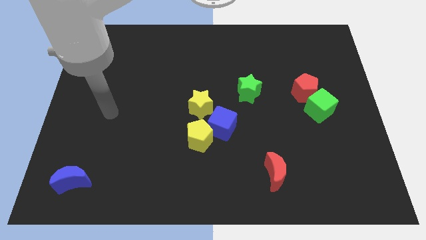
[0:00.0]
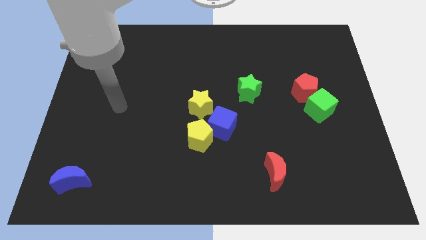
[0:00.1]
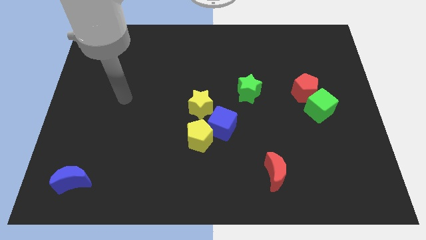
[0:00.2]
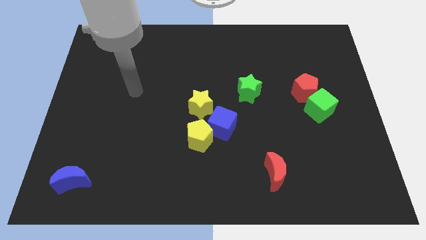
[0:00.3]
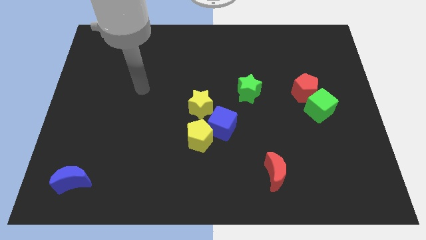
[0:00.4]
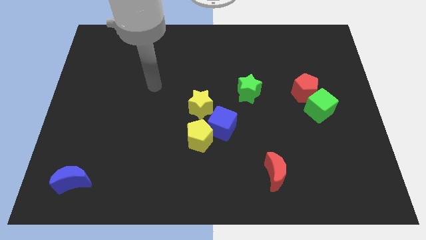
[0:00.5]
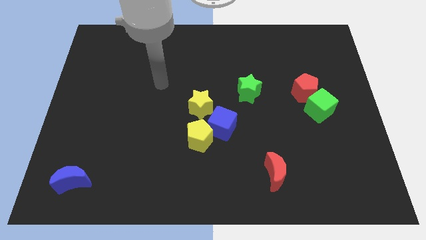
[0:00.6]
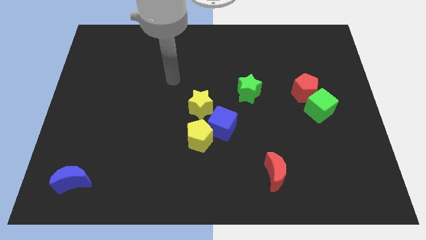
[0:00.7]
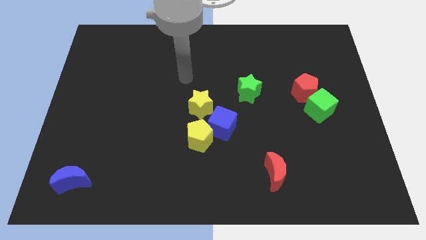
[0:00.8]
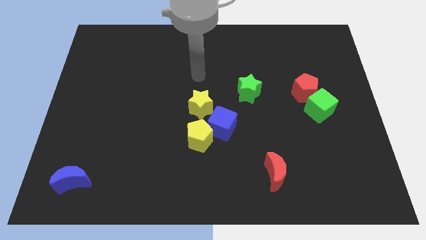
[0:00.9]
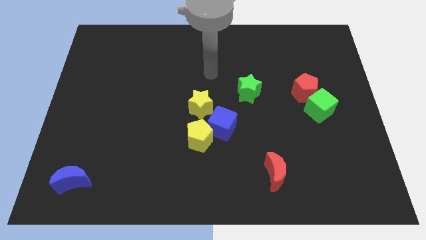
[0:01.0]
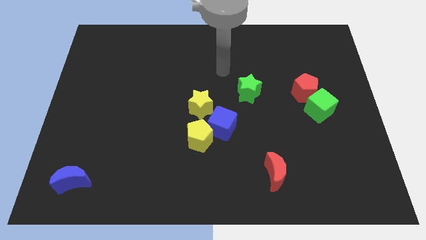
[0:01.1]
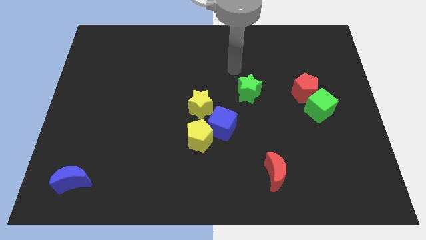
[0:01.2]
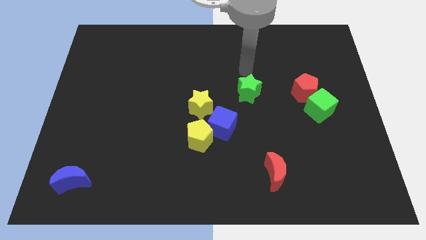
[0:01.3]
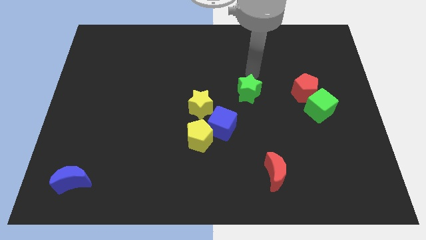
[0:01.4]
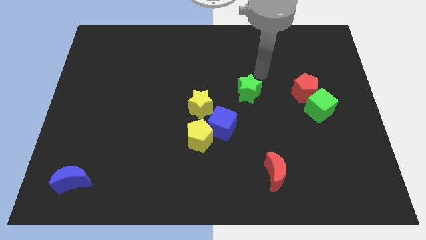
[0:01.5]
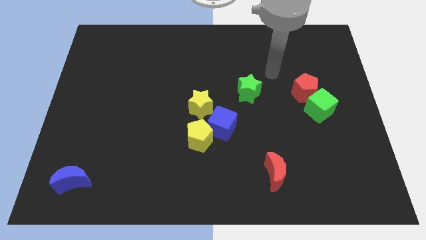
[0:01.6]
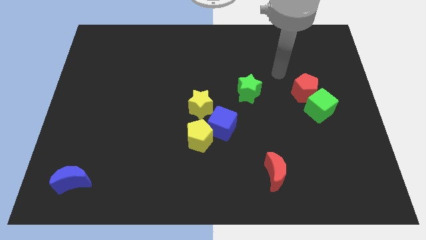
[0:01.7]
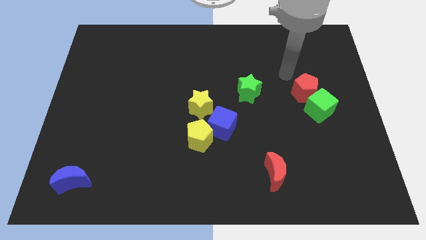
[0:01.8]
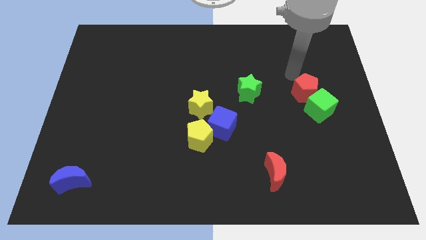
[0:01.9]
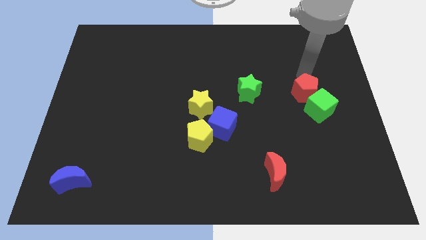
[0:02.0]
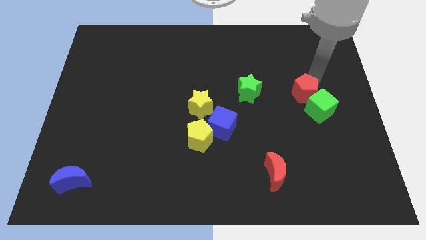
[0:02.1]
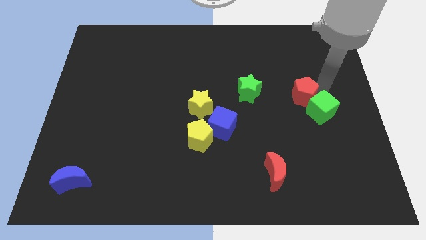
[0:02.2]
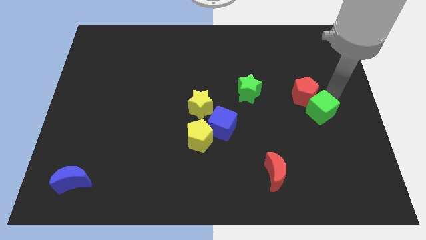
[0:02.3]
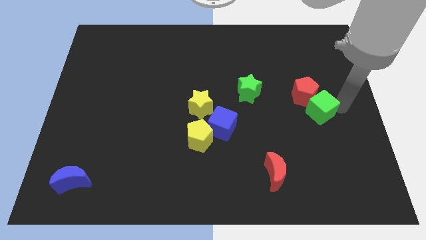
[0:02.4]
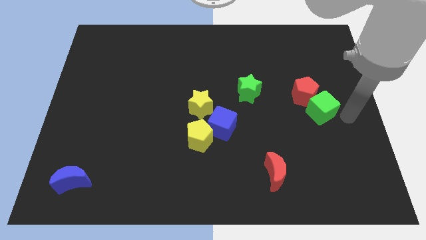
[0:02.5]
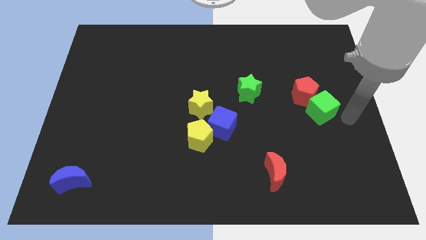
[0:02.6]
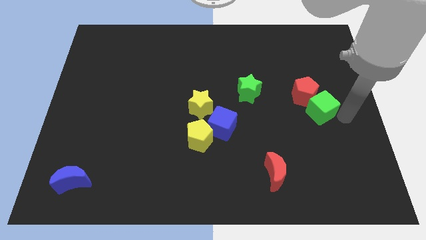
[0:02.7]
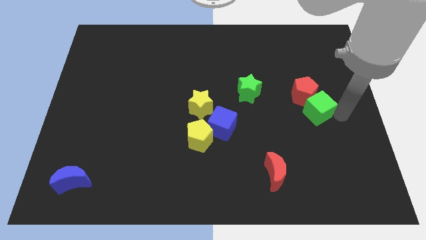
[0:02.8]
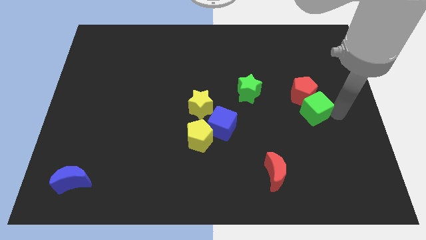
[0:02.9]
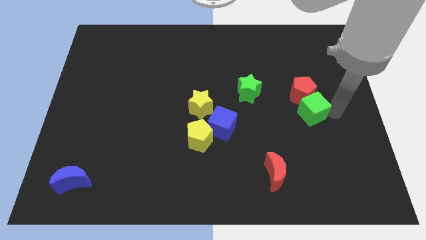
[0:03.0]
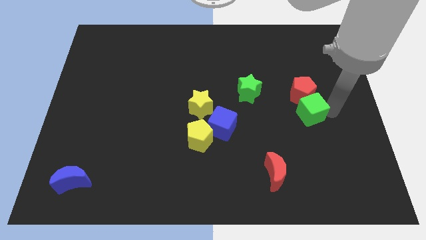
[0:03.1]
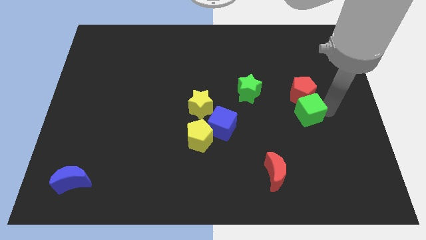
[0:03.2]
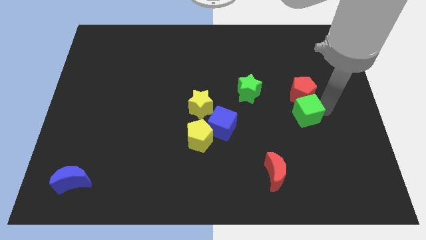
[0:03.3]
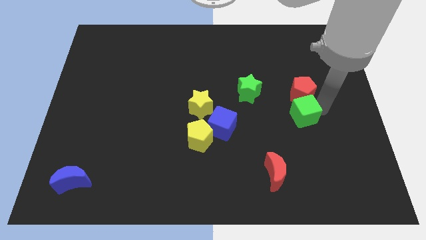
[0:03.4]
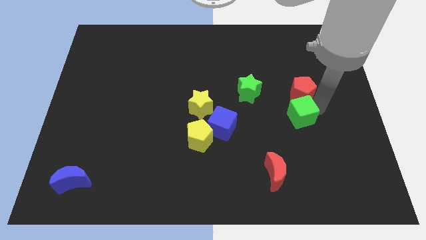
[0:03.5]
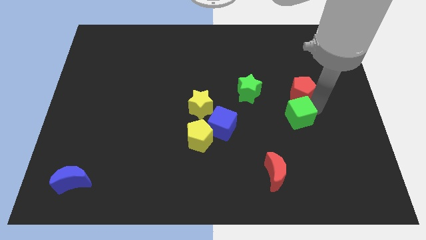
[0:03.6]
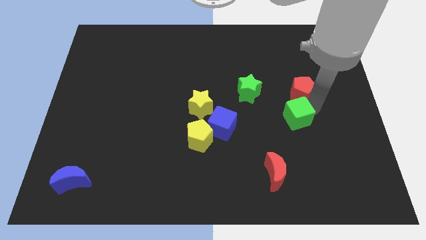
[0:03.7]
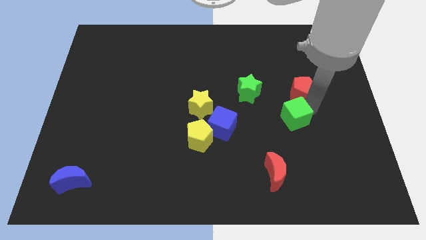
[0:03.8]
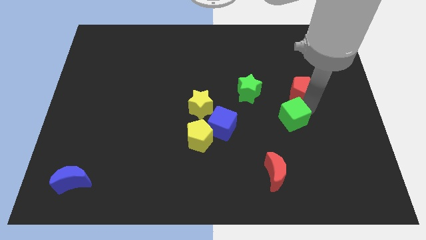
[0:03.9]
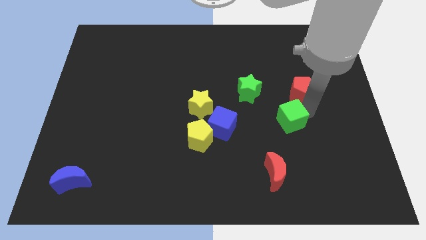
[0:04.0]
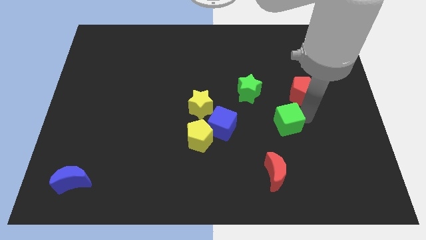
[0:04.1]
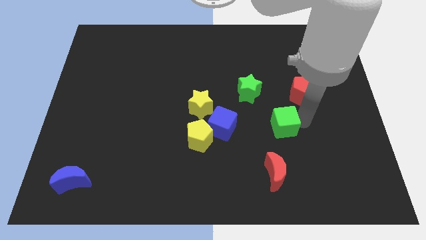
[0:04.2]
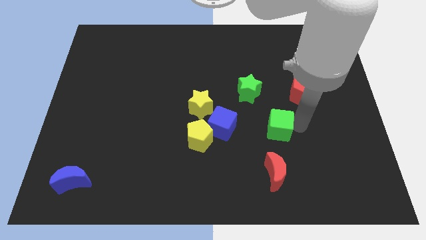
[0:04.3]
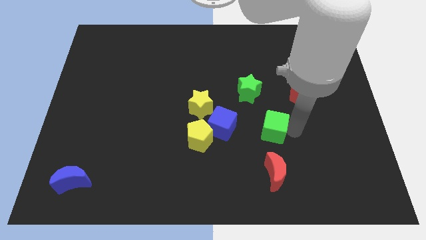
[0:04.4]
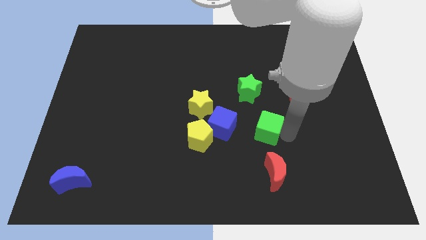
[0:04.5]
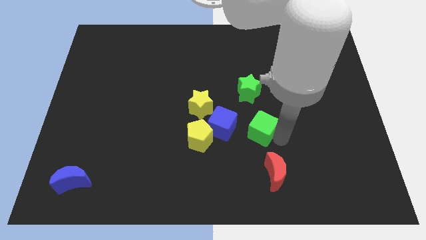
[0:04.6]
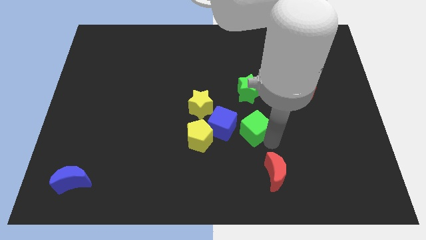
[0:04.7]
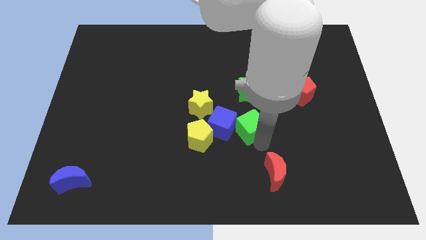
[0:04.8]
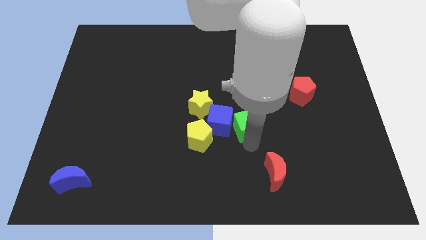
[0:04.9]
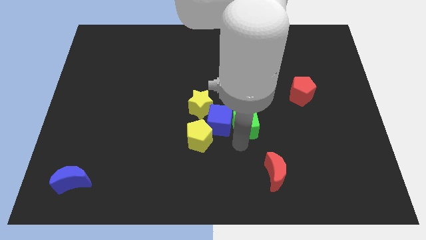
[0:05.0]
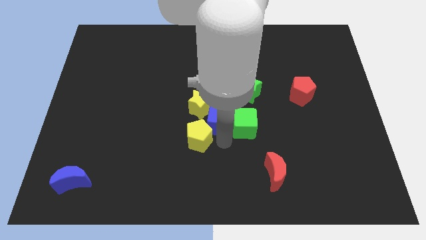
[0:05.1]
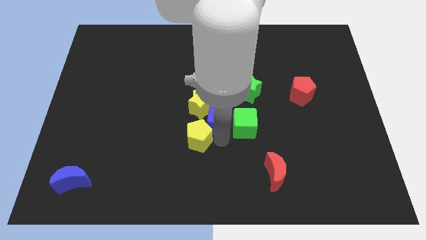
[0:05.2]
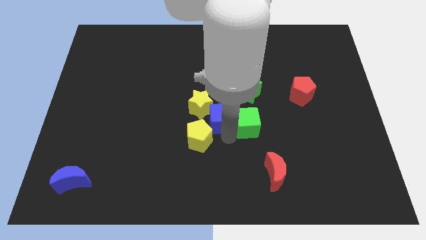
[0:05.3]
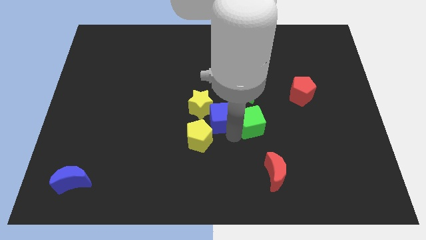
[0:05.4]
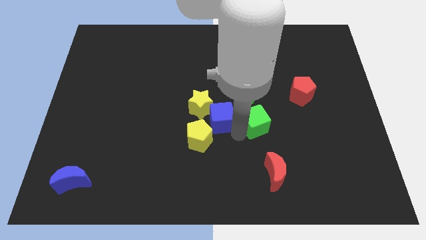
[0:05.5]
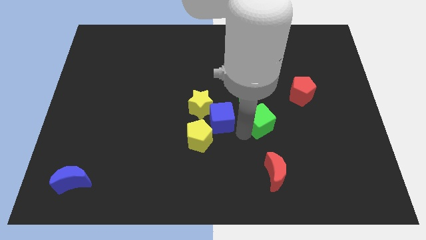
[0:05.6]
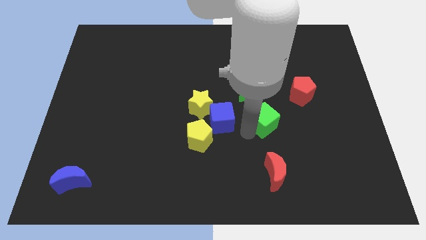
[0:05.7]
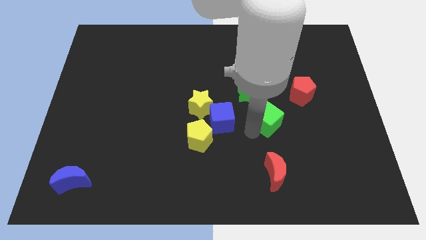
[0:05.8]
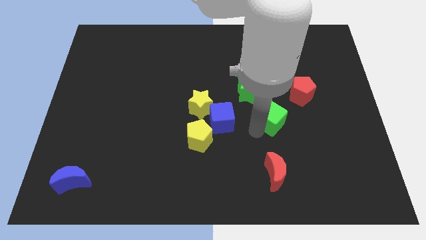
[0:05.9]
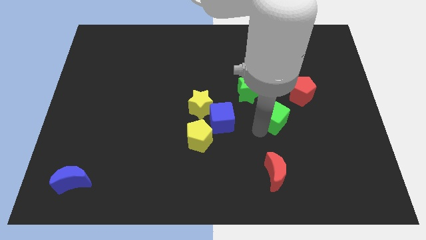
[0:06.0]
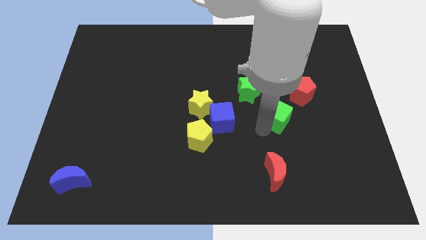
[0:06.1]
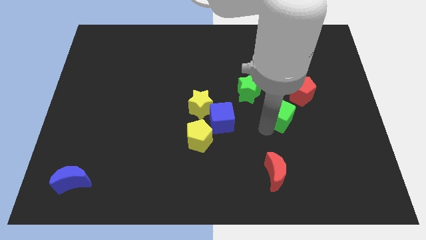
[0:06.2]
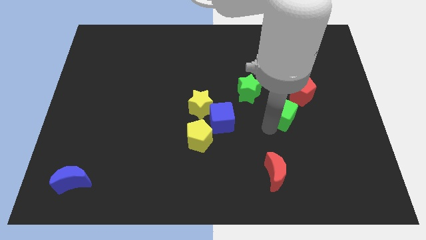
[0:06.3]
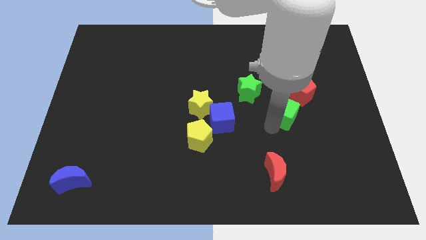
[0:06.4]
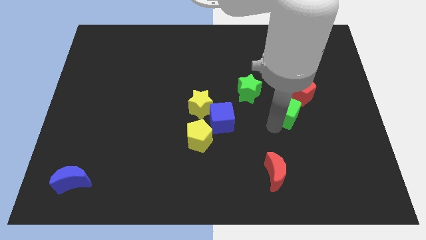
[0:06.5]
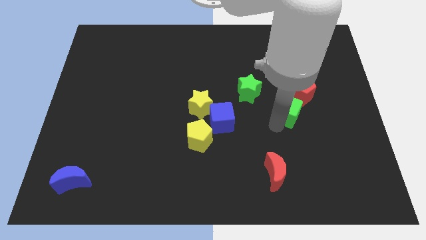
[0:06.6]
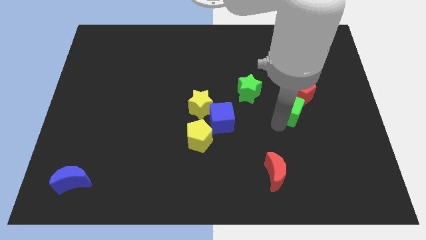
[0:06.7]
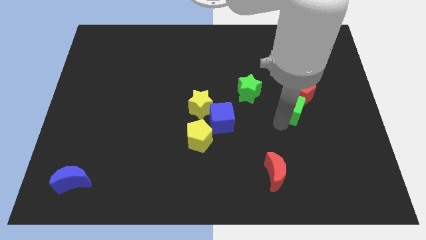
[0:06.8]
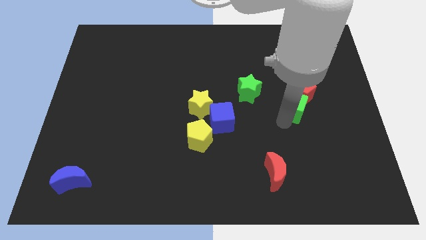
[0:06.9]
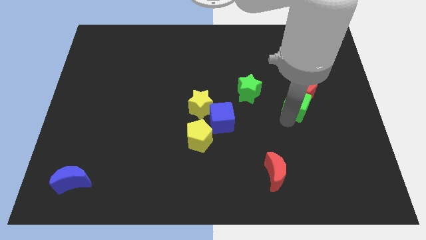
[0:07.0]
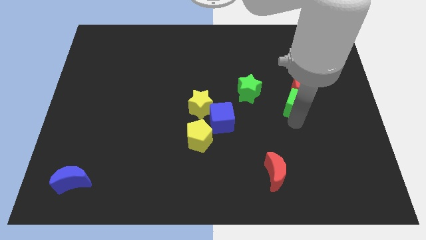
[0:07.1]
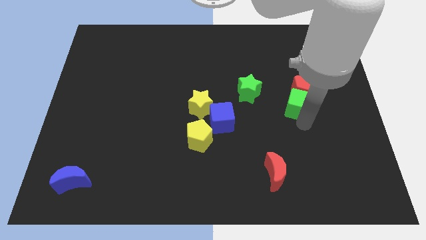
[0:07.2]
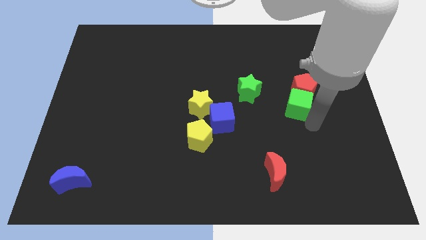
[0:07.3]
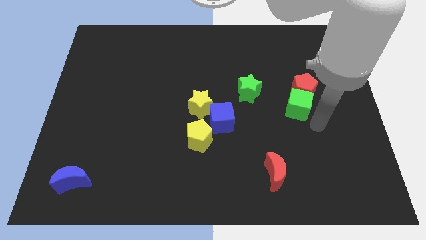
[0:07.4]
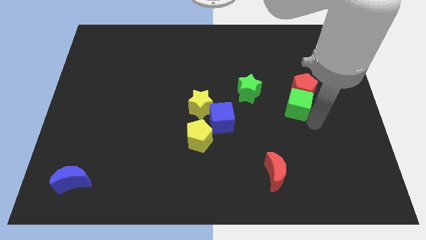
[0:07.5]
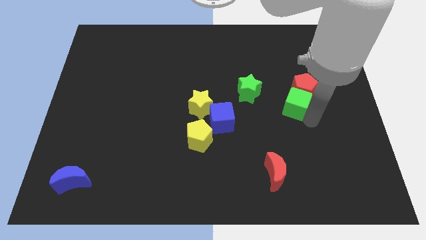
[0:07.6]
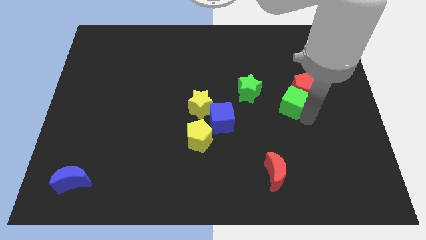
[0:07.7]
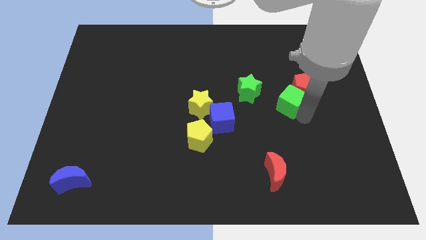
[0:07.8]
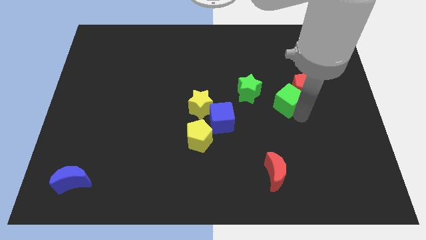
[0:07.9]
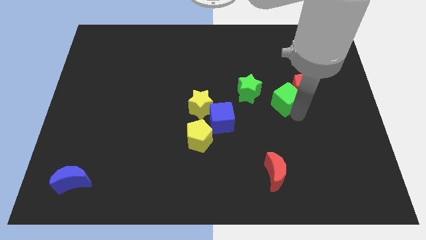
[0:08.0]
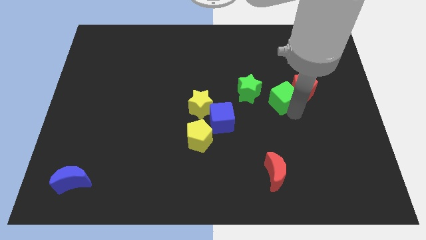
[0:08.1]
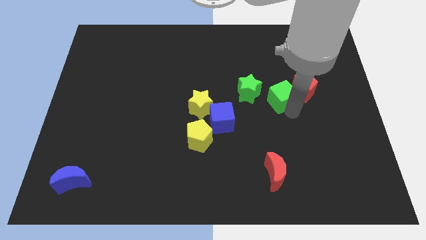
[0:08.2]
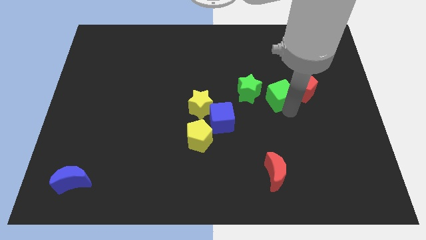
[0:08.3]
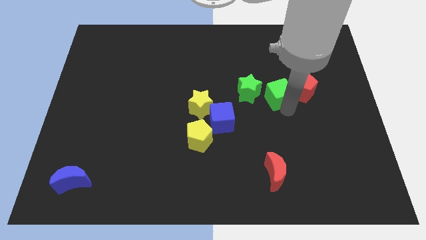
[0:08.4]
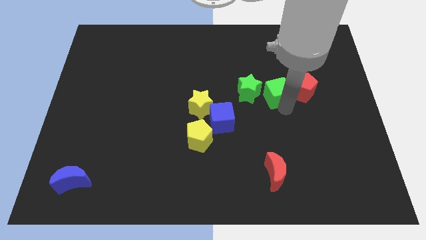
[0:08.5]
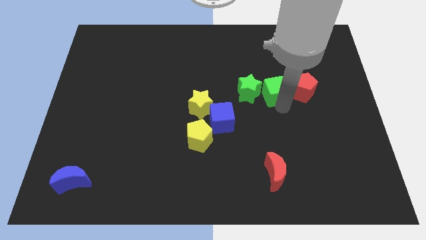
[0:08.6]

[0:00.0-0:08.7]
slide the green cube to the top right side of the green star
